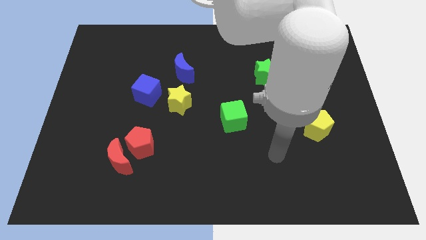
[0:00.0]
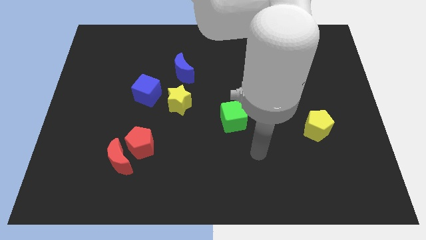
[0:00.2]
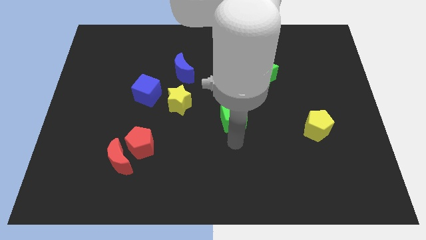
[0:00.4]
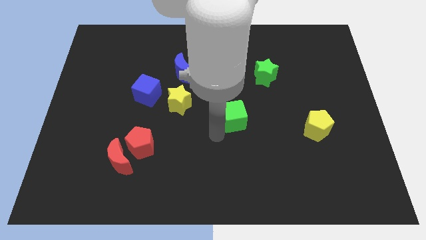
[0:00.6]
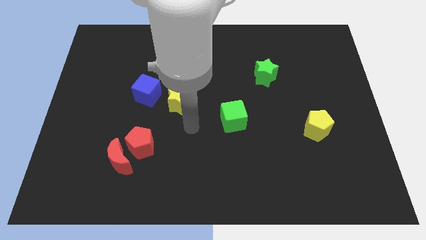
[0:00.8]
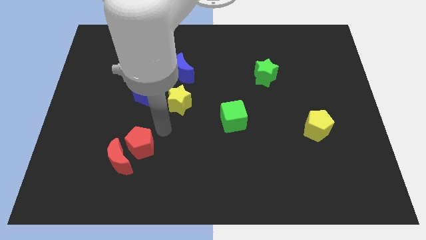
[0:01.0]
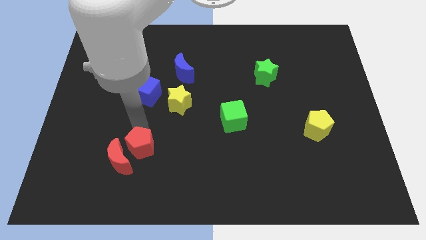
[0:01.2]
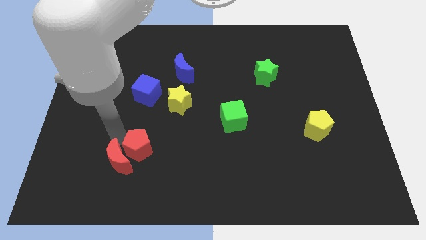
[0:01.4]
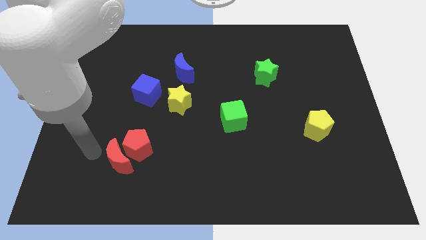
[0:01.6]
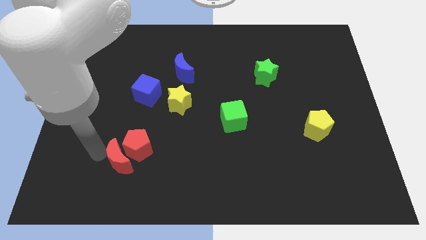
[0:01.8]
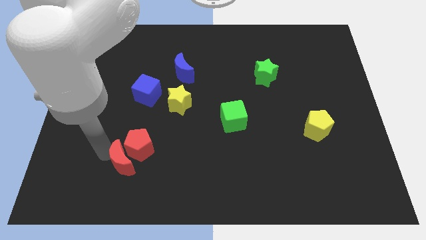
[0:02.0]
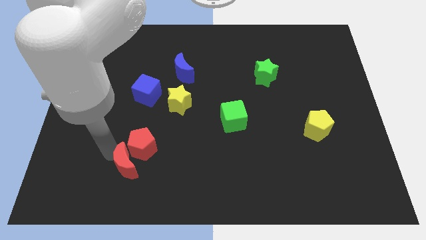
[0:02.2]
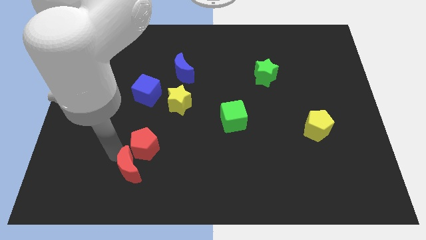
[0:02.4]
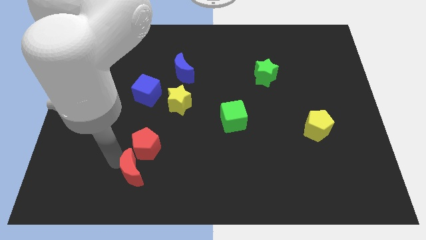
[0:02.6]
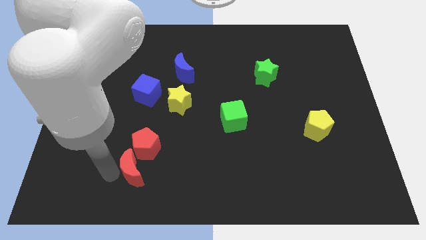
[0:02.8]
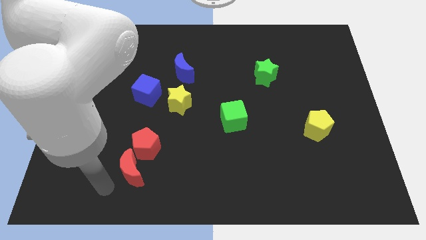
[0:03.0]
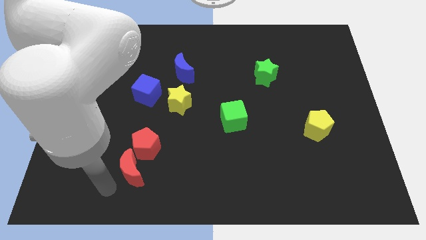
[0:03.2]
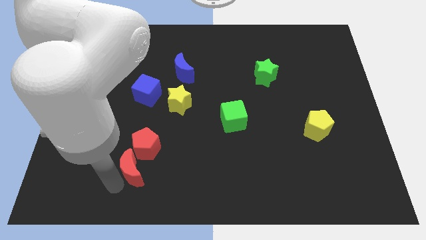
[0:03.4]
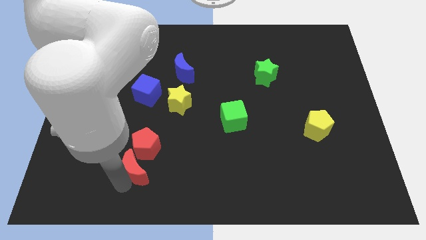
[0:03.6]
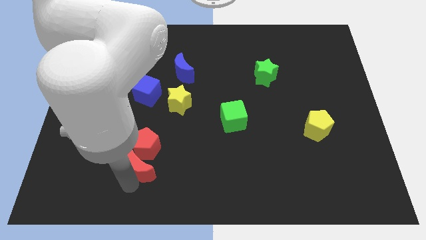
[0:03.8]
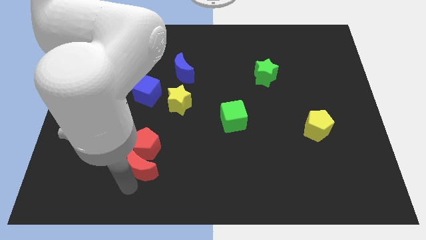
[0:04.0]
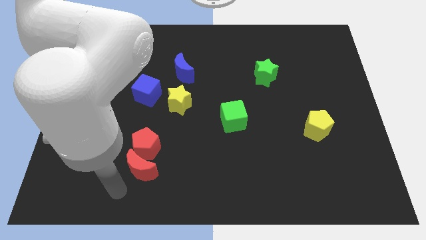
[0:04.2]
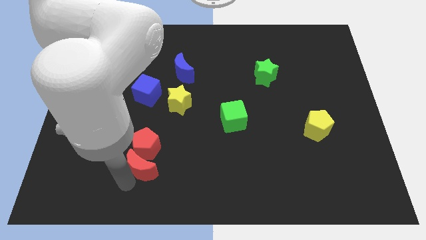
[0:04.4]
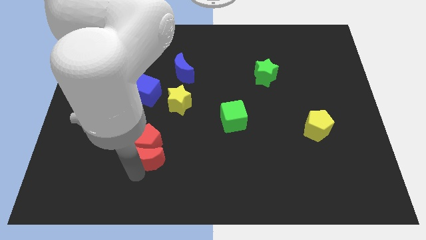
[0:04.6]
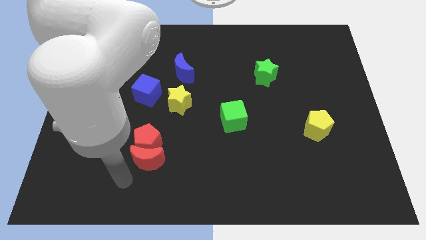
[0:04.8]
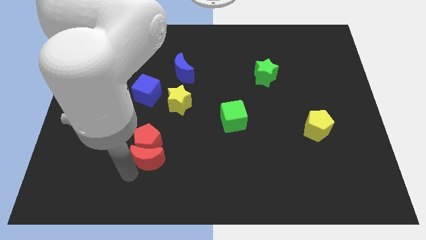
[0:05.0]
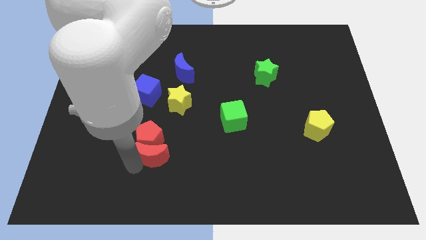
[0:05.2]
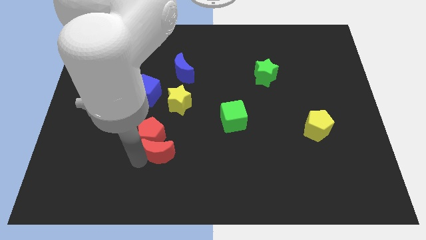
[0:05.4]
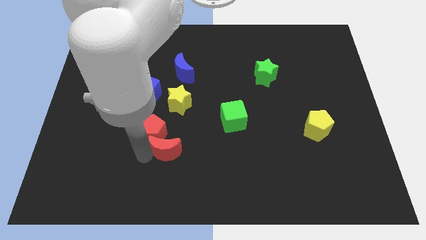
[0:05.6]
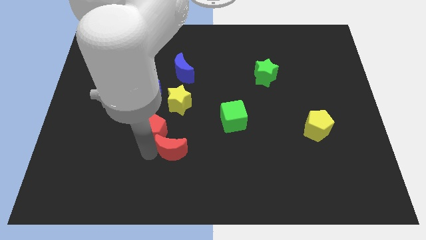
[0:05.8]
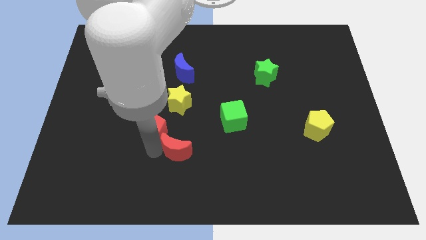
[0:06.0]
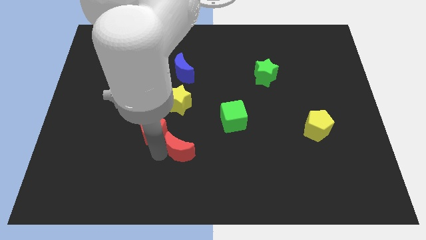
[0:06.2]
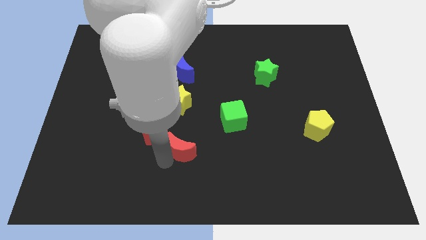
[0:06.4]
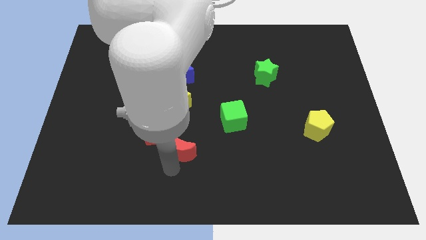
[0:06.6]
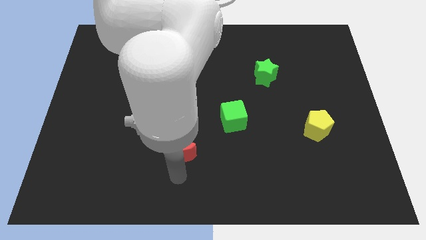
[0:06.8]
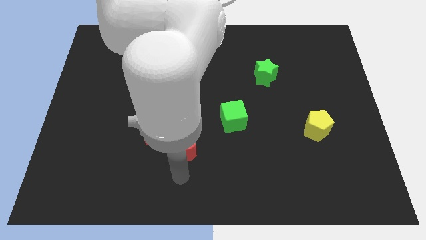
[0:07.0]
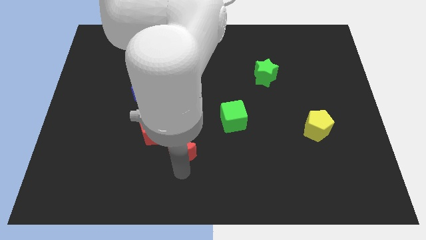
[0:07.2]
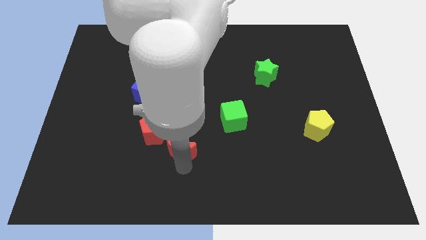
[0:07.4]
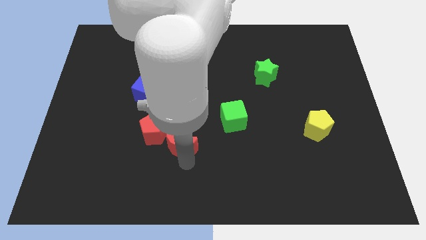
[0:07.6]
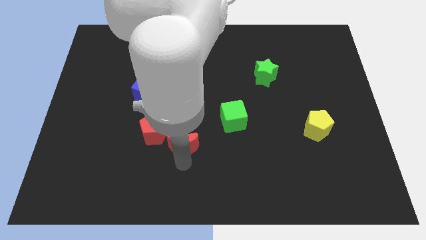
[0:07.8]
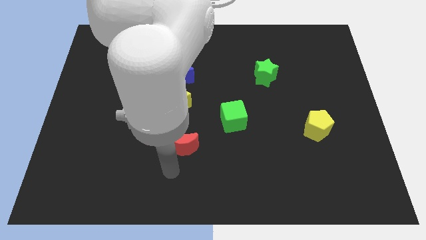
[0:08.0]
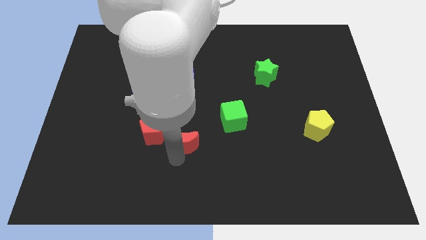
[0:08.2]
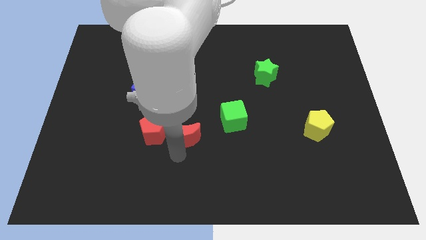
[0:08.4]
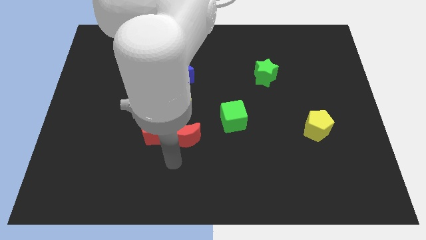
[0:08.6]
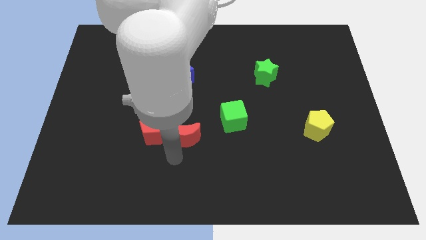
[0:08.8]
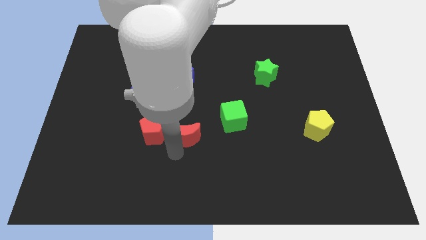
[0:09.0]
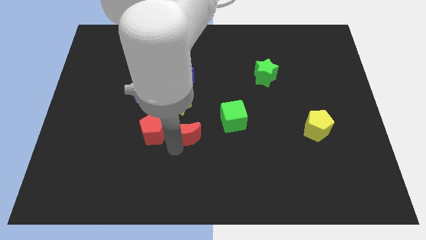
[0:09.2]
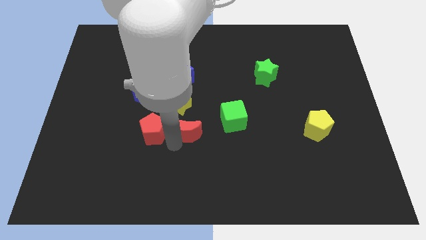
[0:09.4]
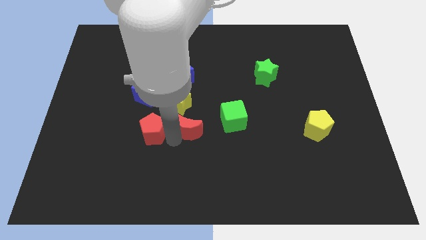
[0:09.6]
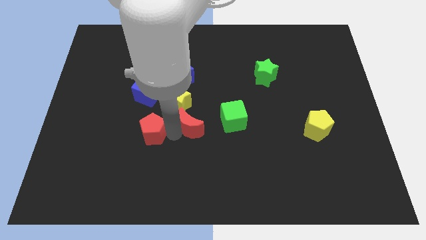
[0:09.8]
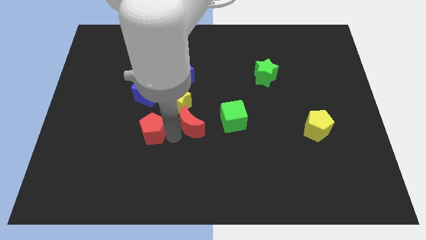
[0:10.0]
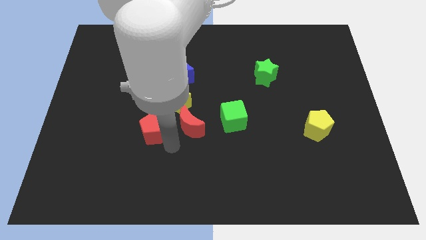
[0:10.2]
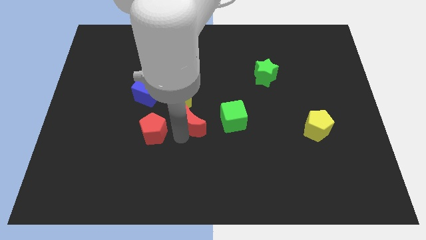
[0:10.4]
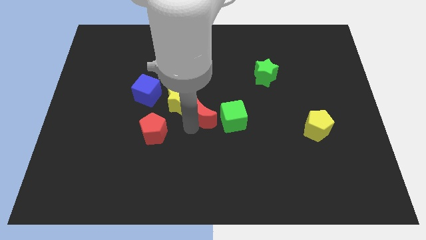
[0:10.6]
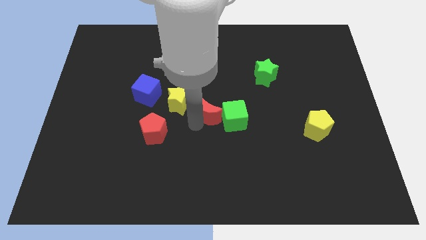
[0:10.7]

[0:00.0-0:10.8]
move the red moon up and to the right diagonally

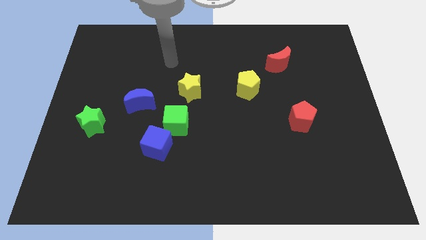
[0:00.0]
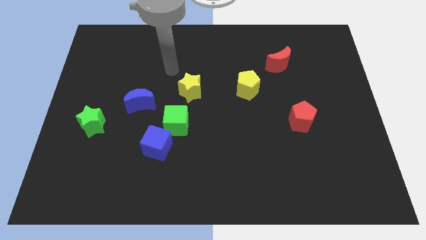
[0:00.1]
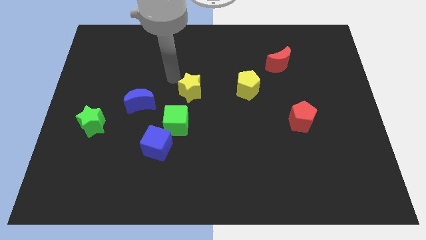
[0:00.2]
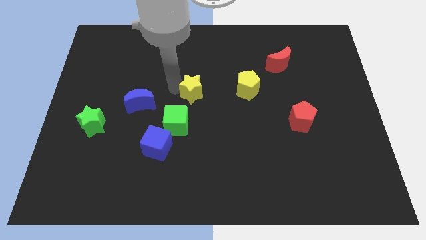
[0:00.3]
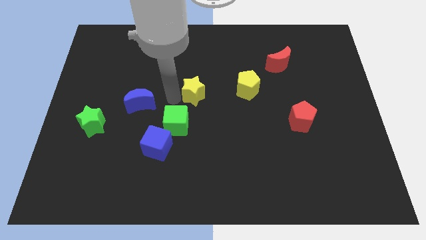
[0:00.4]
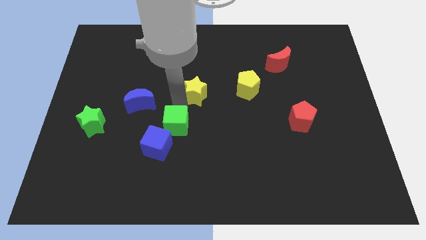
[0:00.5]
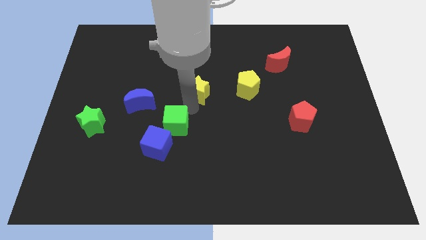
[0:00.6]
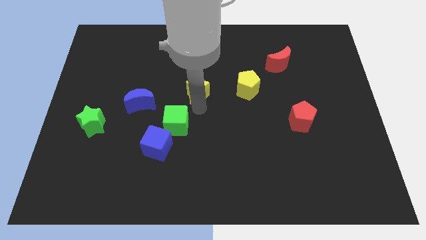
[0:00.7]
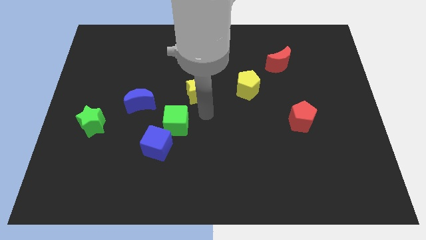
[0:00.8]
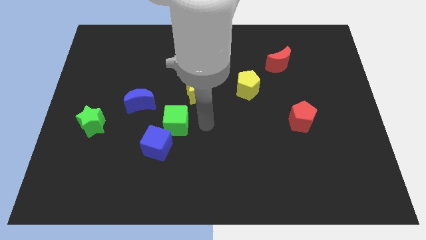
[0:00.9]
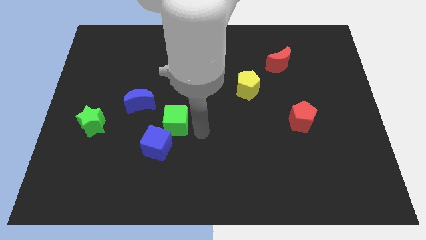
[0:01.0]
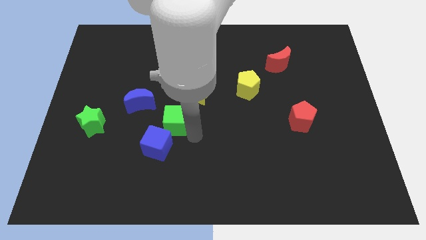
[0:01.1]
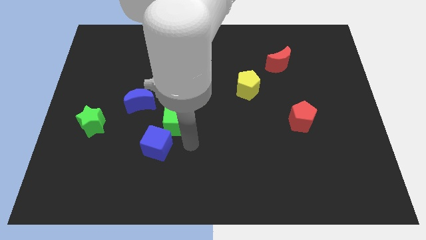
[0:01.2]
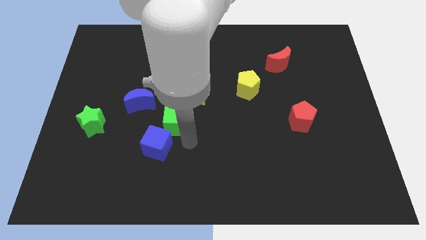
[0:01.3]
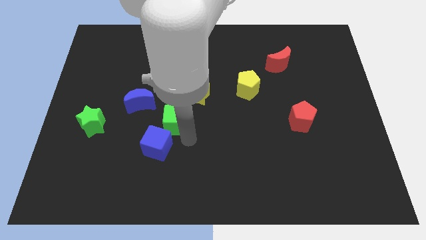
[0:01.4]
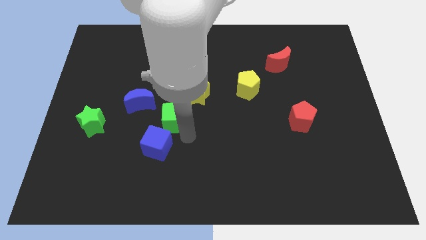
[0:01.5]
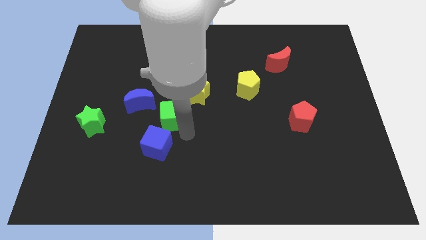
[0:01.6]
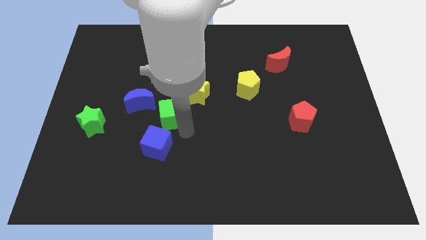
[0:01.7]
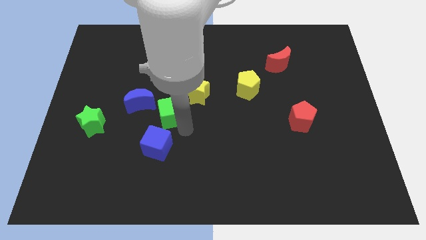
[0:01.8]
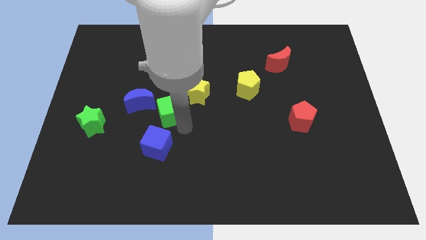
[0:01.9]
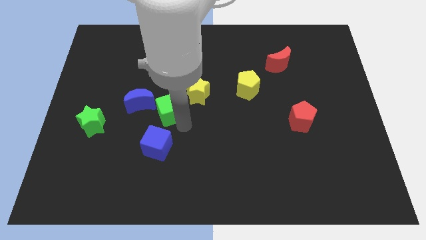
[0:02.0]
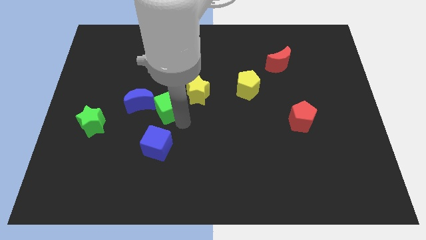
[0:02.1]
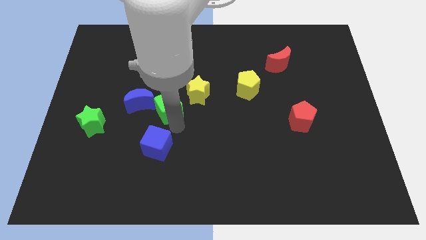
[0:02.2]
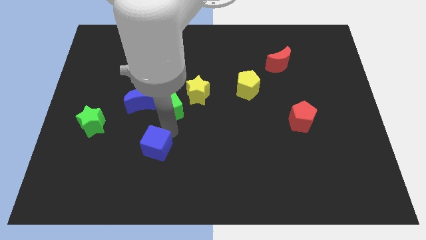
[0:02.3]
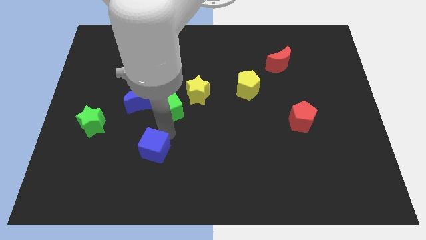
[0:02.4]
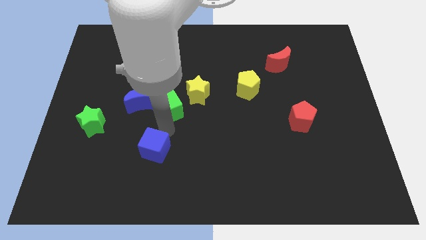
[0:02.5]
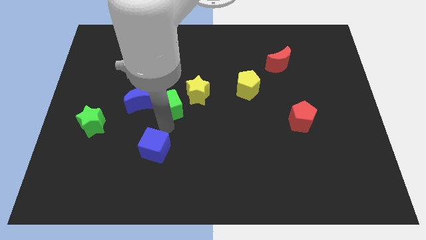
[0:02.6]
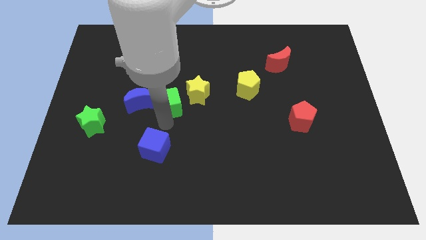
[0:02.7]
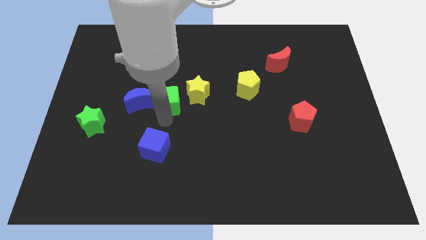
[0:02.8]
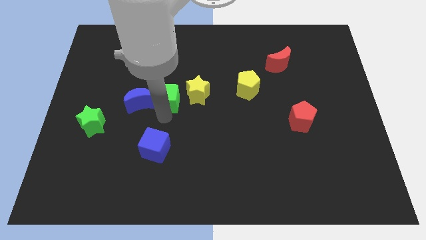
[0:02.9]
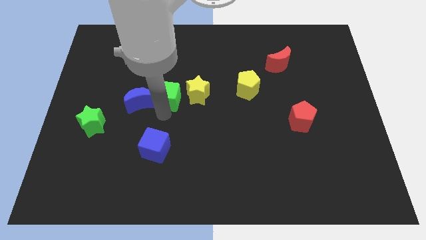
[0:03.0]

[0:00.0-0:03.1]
push the green cube a little upwards
